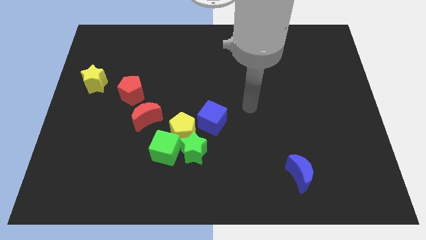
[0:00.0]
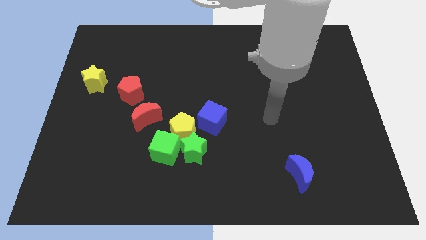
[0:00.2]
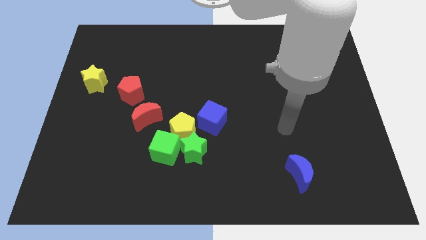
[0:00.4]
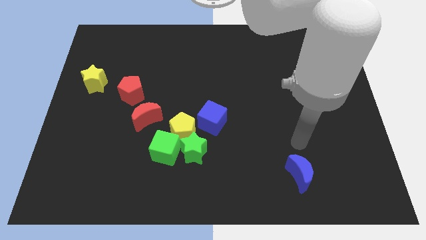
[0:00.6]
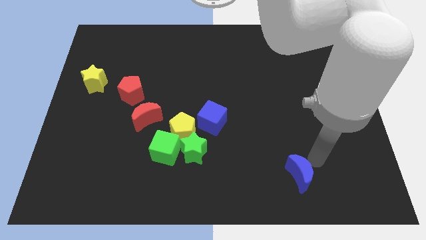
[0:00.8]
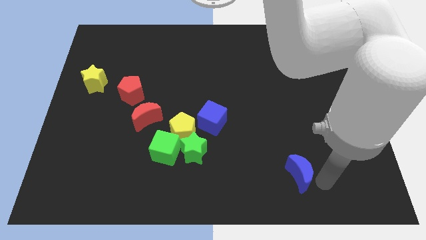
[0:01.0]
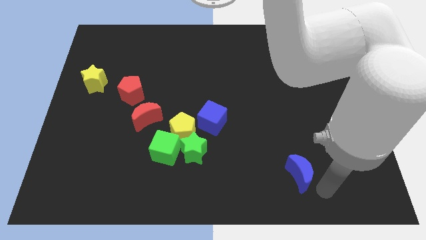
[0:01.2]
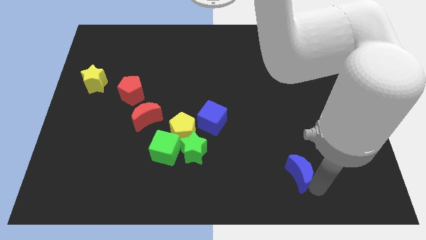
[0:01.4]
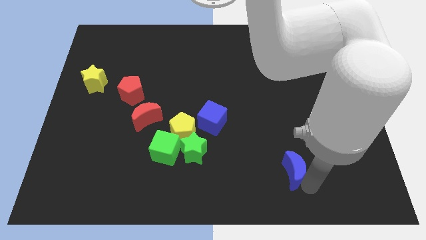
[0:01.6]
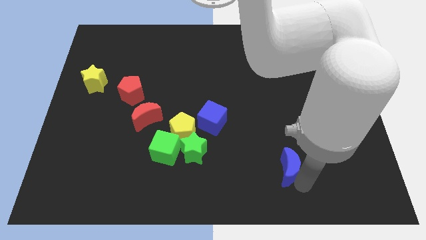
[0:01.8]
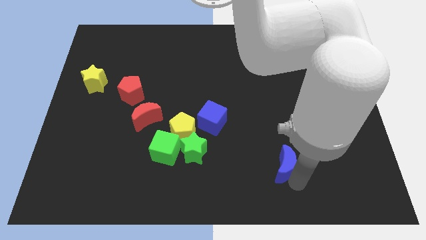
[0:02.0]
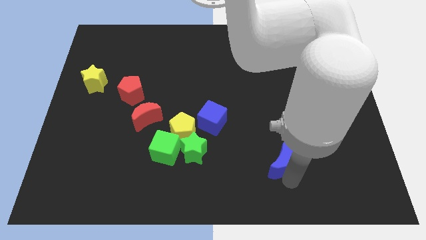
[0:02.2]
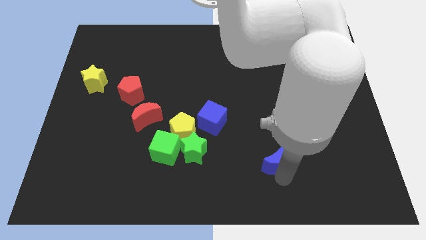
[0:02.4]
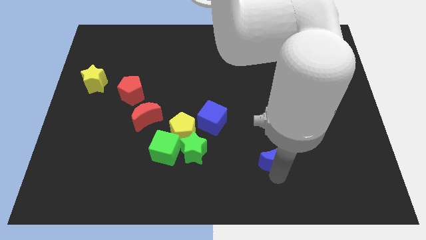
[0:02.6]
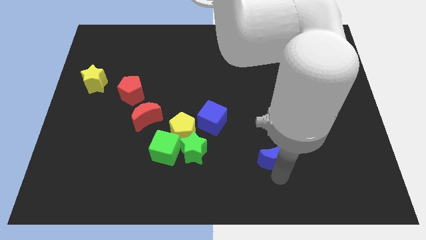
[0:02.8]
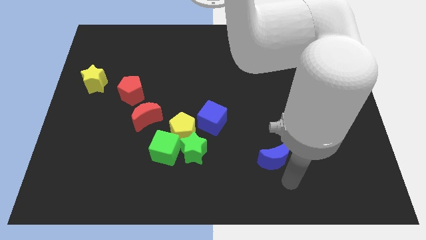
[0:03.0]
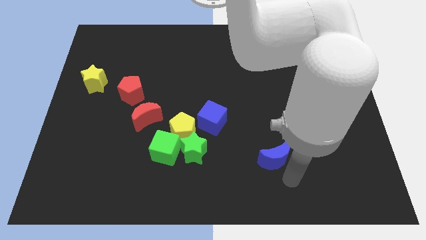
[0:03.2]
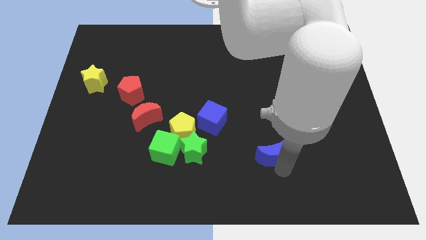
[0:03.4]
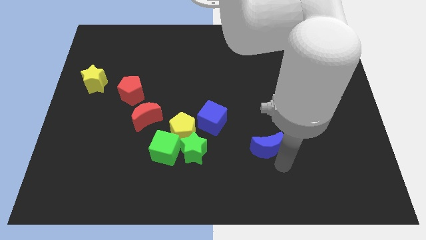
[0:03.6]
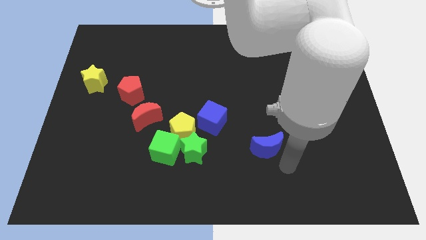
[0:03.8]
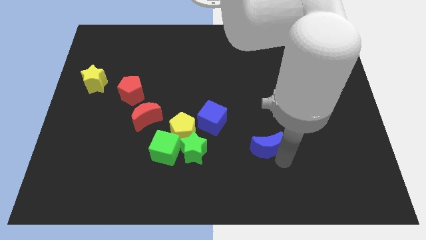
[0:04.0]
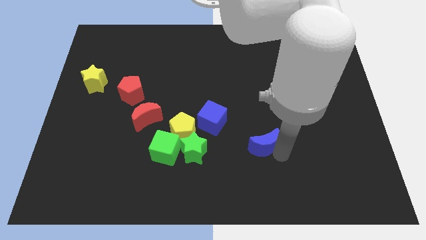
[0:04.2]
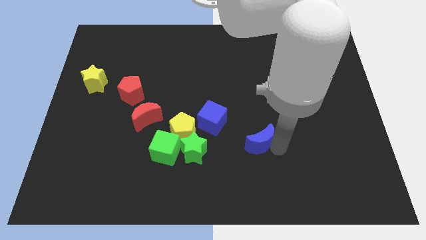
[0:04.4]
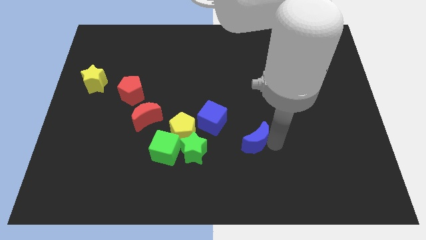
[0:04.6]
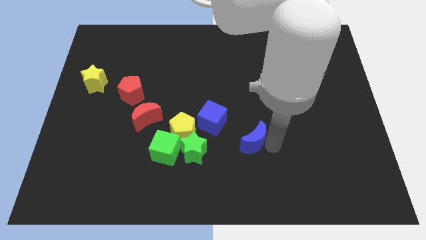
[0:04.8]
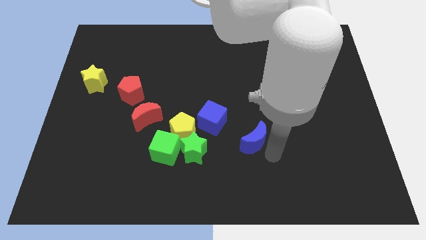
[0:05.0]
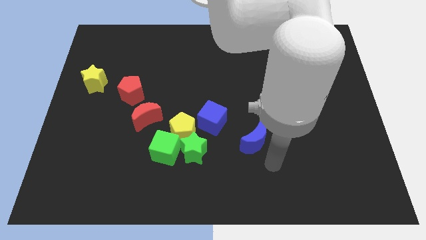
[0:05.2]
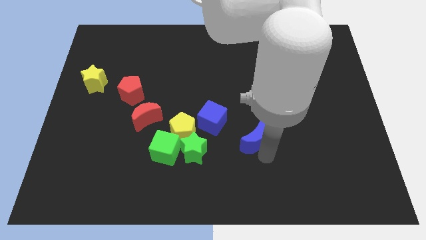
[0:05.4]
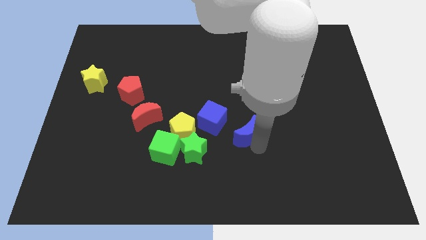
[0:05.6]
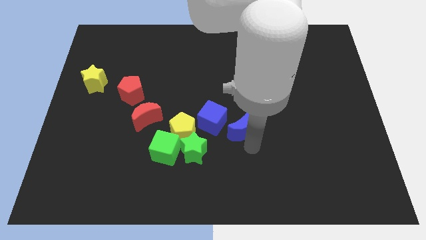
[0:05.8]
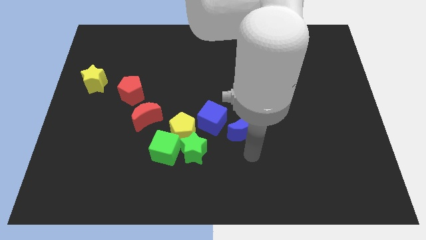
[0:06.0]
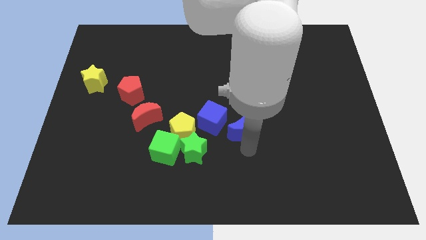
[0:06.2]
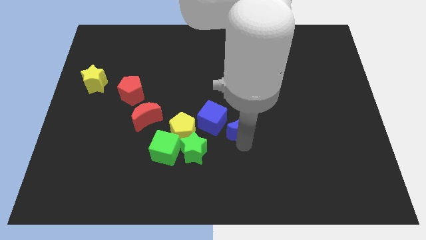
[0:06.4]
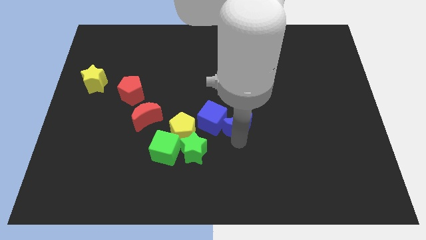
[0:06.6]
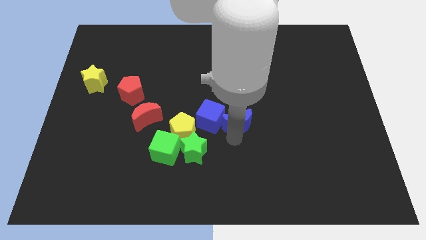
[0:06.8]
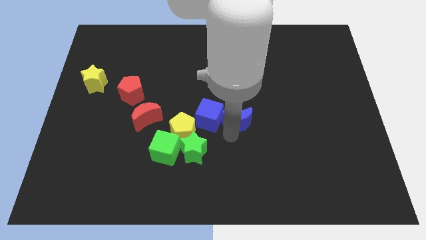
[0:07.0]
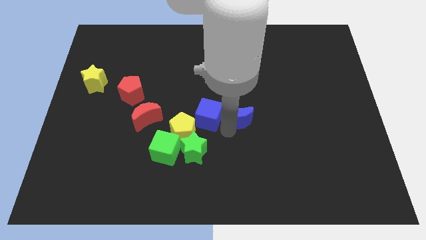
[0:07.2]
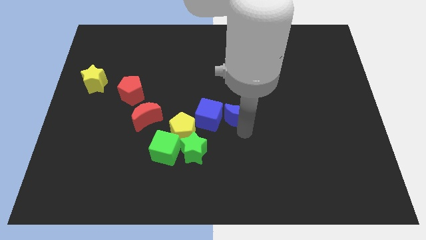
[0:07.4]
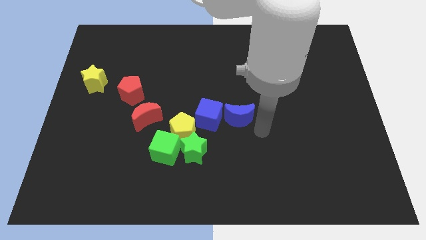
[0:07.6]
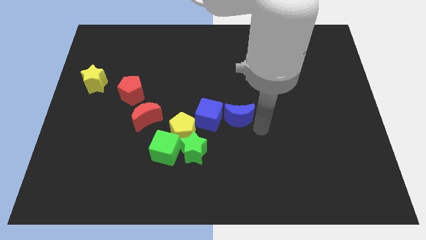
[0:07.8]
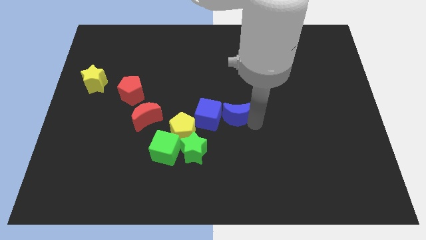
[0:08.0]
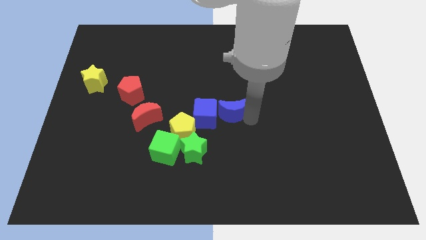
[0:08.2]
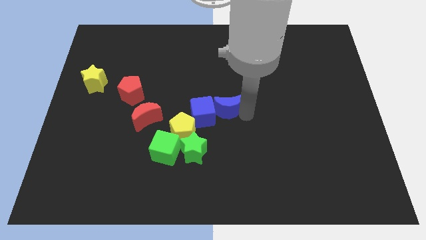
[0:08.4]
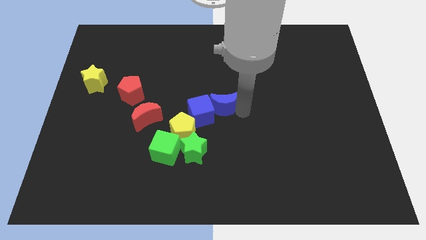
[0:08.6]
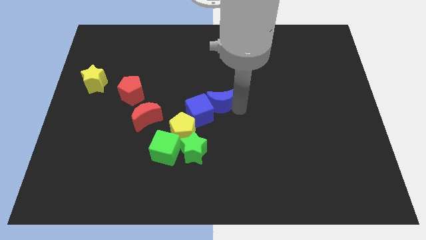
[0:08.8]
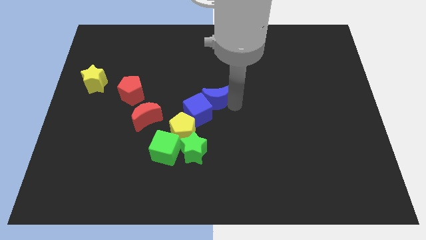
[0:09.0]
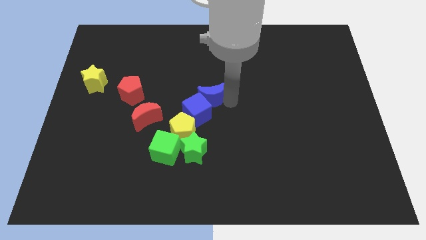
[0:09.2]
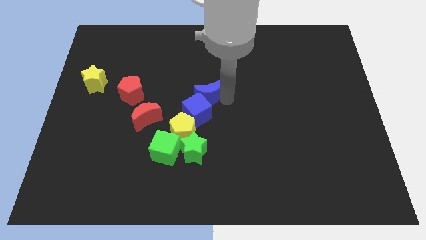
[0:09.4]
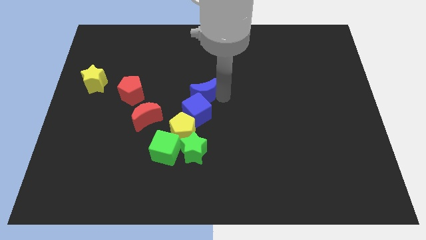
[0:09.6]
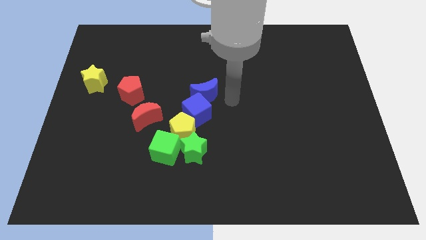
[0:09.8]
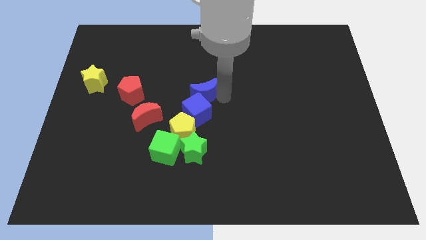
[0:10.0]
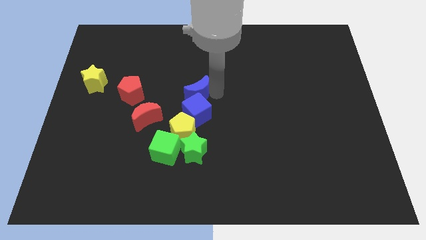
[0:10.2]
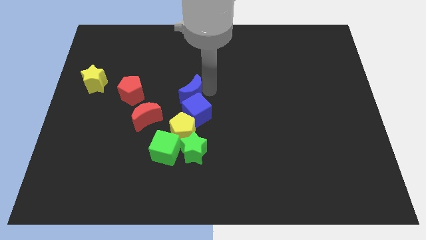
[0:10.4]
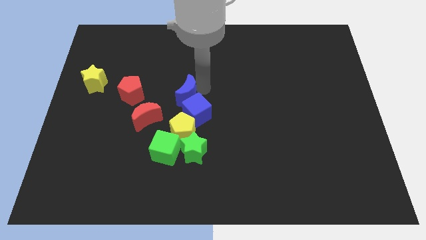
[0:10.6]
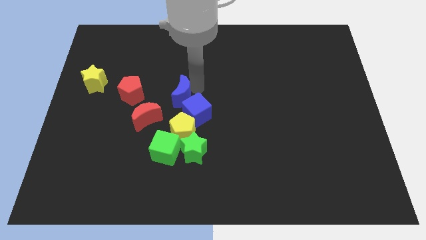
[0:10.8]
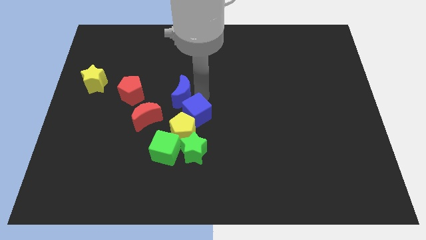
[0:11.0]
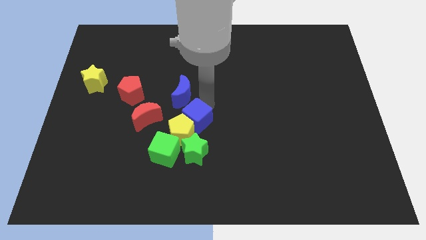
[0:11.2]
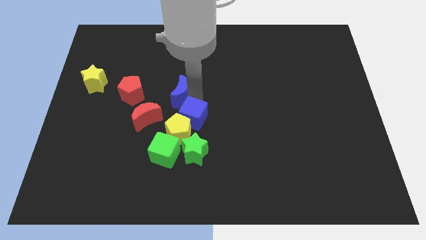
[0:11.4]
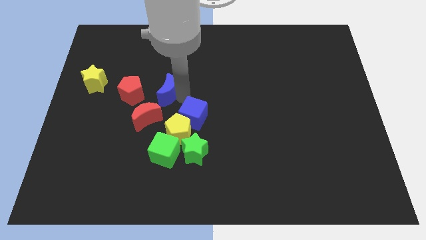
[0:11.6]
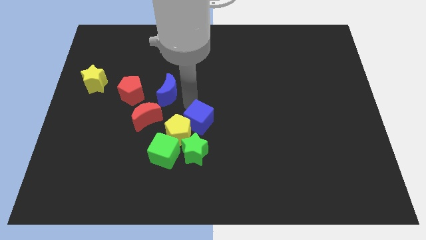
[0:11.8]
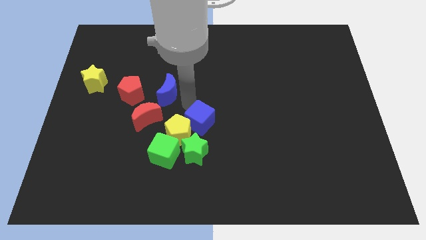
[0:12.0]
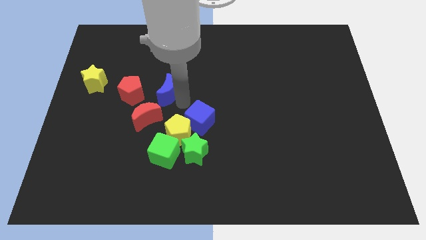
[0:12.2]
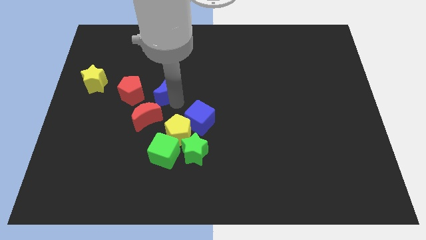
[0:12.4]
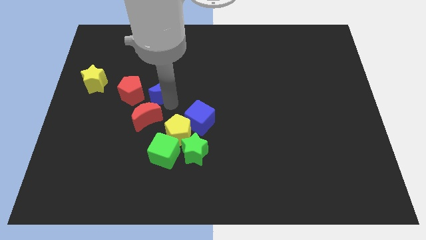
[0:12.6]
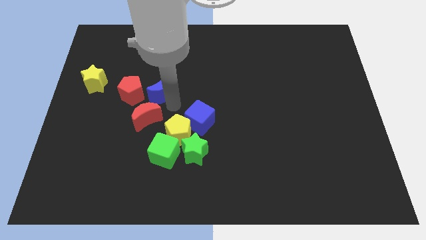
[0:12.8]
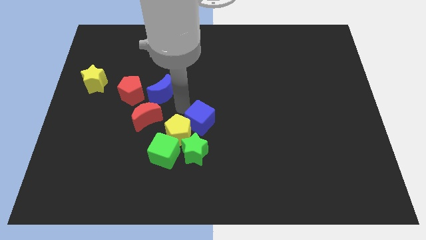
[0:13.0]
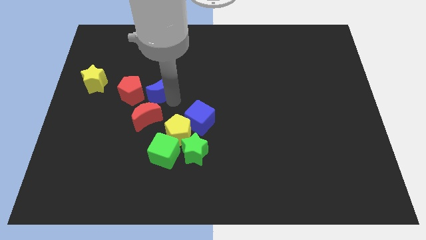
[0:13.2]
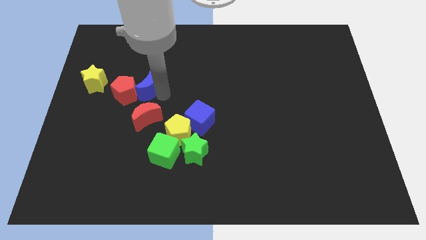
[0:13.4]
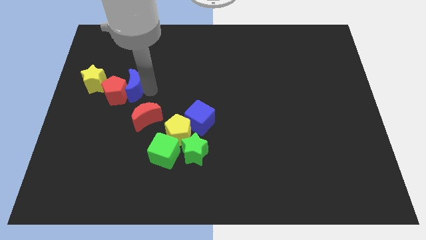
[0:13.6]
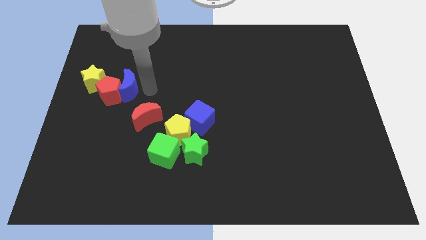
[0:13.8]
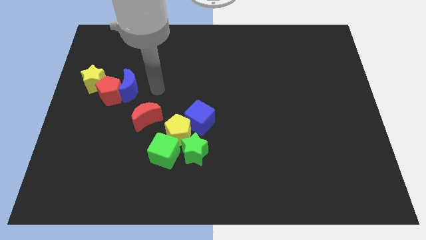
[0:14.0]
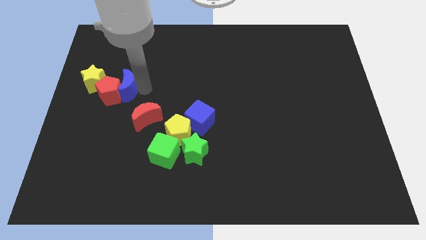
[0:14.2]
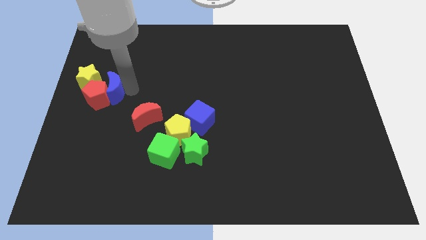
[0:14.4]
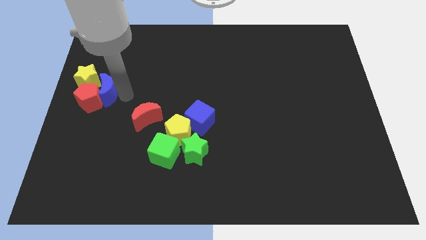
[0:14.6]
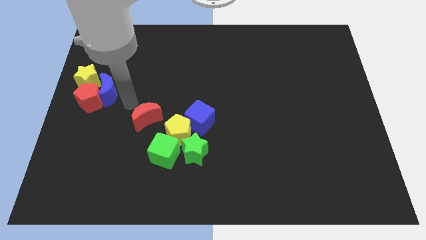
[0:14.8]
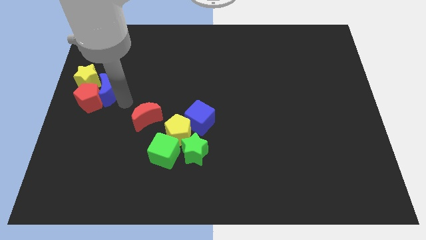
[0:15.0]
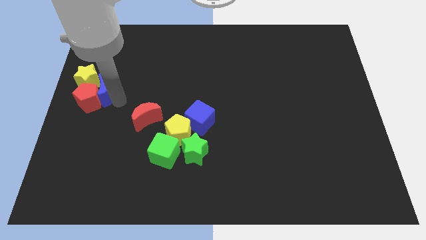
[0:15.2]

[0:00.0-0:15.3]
move the blue moon to the yellow star
